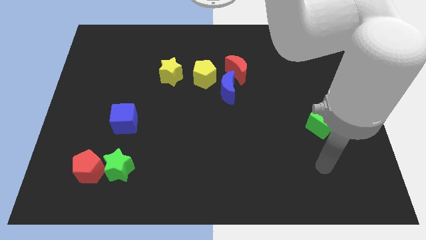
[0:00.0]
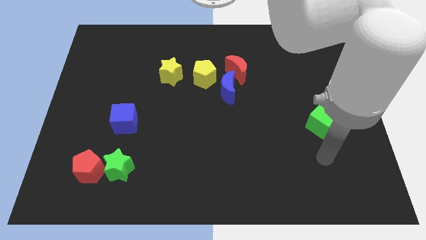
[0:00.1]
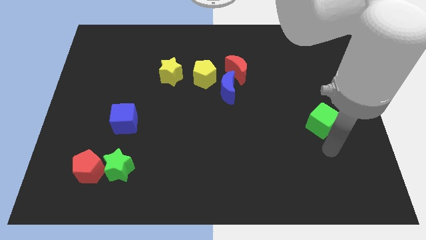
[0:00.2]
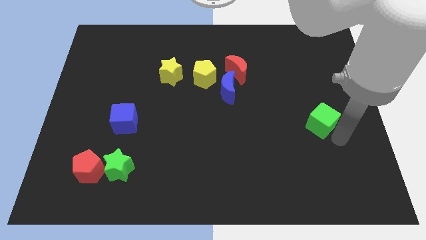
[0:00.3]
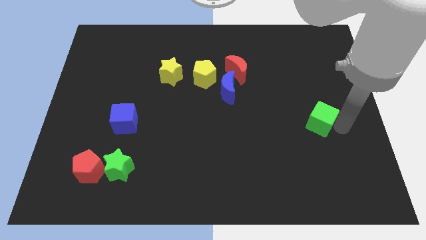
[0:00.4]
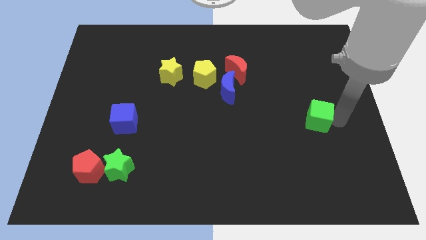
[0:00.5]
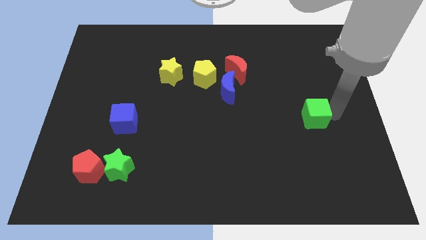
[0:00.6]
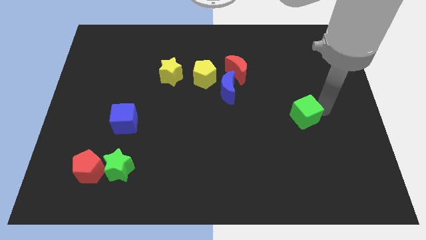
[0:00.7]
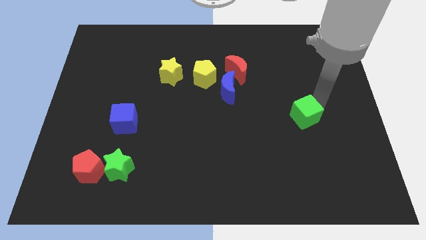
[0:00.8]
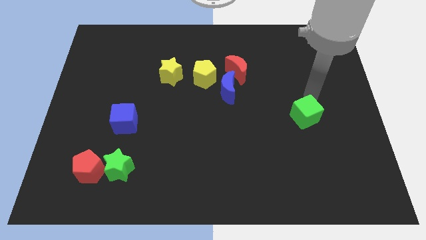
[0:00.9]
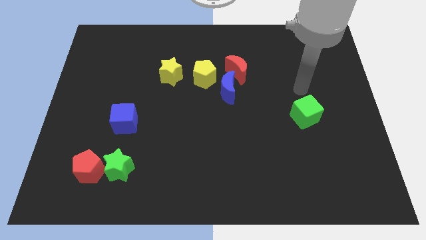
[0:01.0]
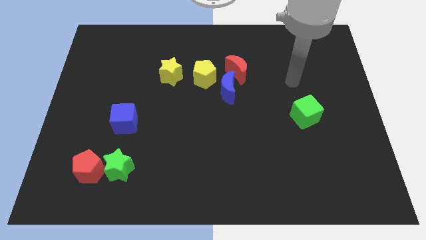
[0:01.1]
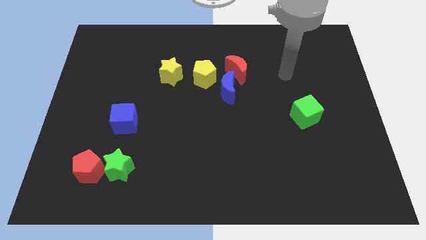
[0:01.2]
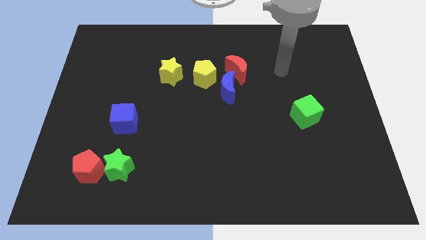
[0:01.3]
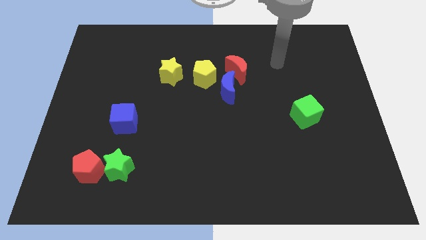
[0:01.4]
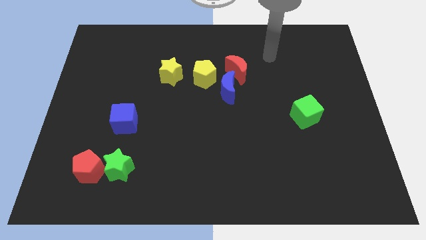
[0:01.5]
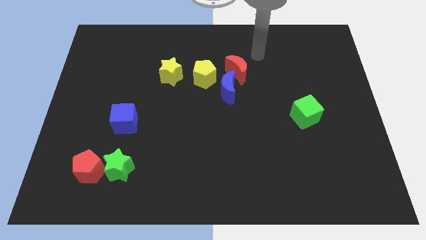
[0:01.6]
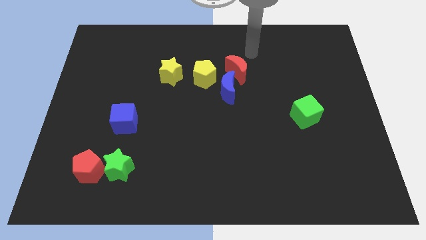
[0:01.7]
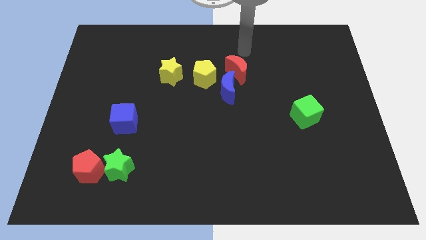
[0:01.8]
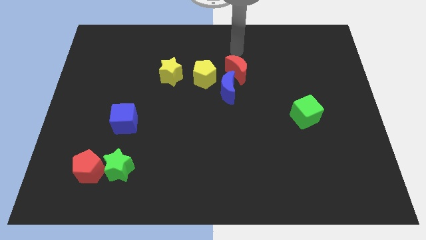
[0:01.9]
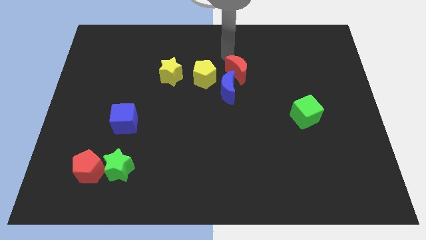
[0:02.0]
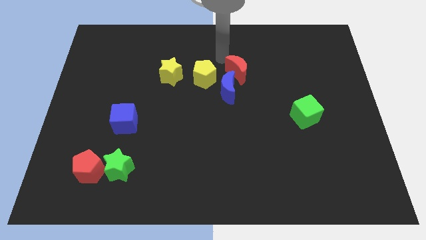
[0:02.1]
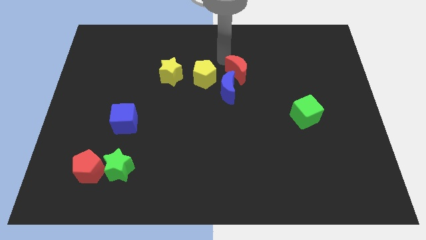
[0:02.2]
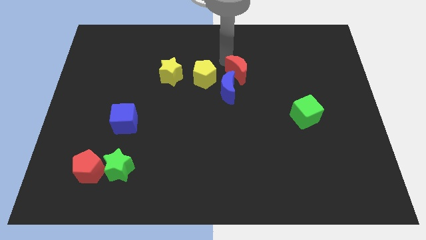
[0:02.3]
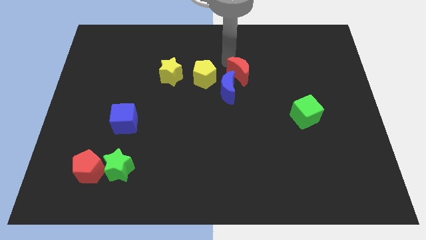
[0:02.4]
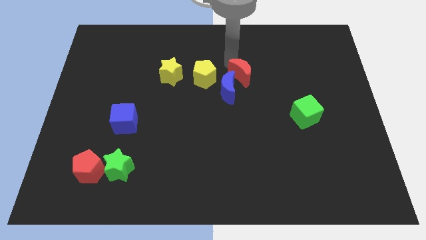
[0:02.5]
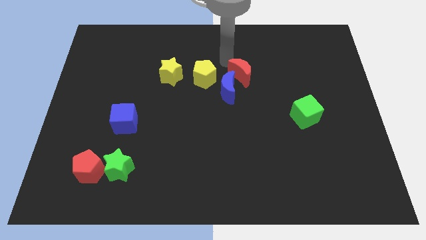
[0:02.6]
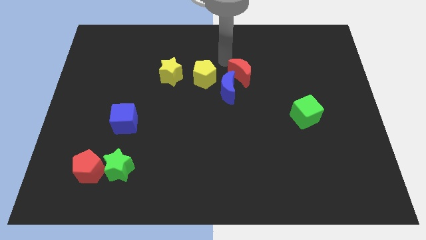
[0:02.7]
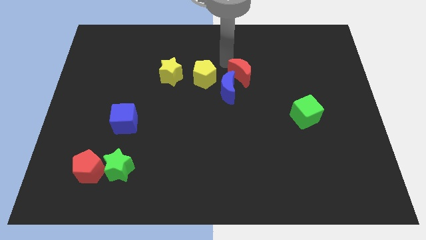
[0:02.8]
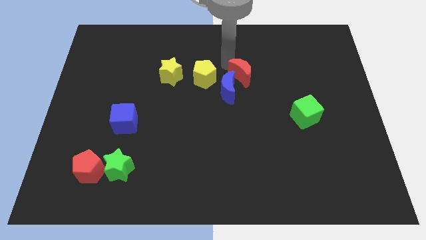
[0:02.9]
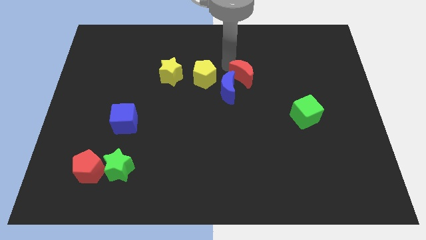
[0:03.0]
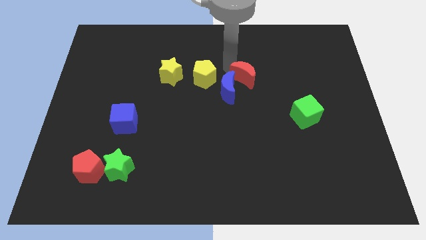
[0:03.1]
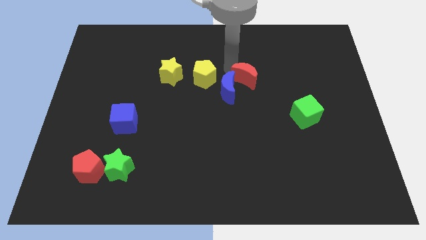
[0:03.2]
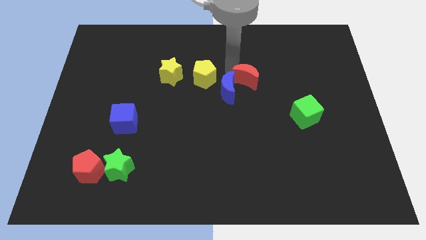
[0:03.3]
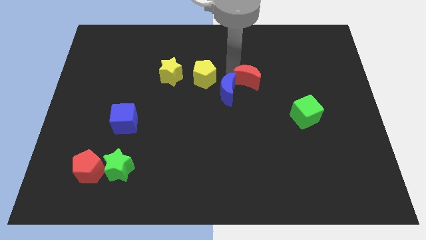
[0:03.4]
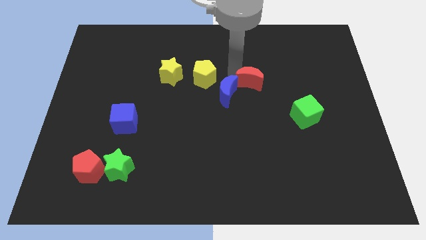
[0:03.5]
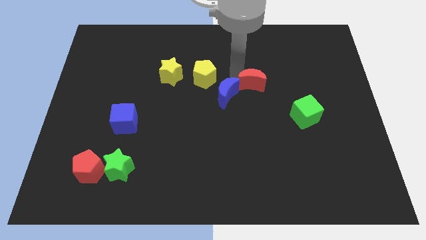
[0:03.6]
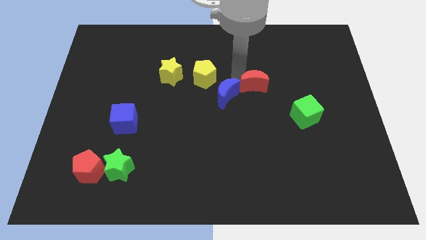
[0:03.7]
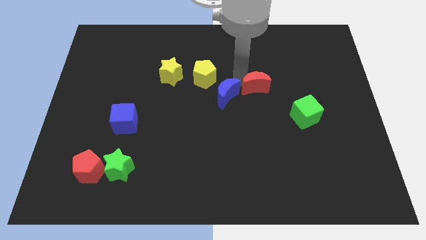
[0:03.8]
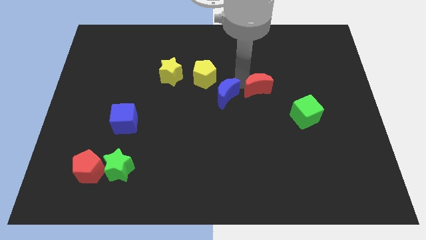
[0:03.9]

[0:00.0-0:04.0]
push the red moon somewhat diagonally downwards and to the right

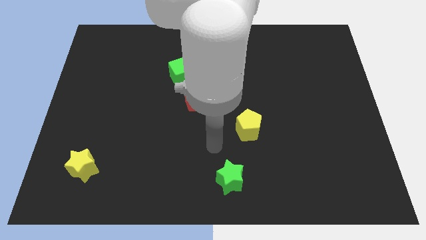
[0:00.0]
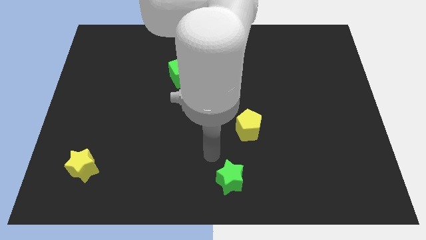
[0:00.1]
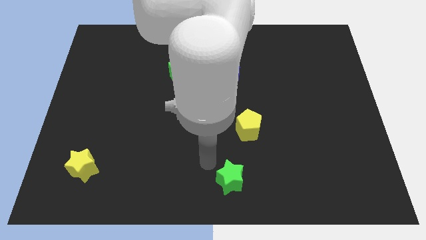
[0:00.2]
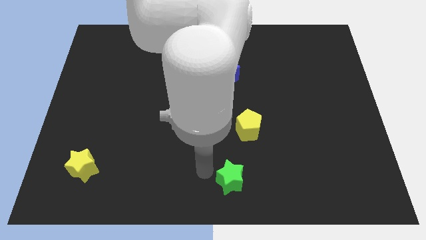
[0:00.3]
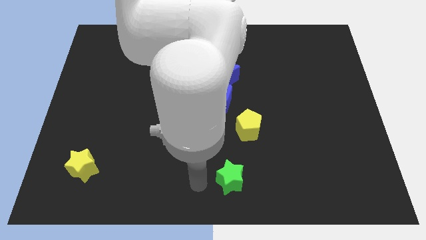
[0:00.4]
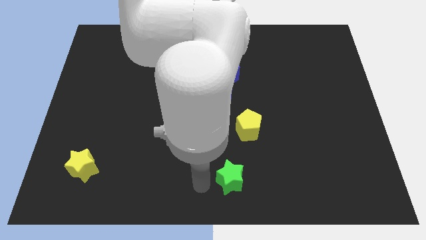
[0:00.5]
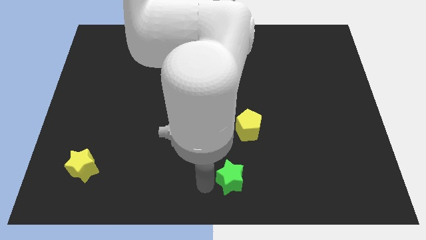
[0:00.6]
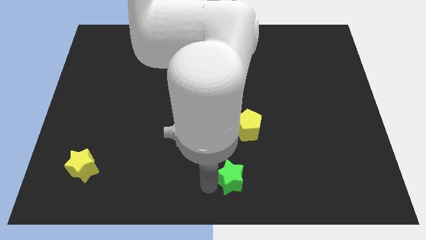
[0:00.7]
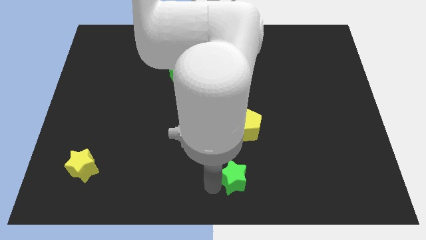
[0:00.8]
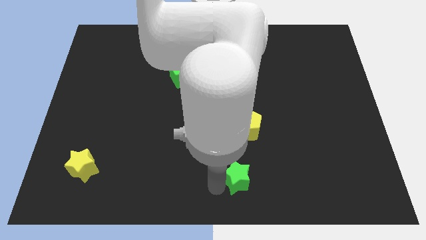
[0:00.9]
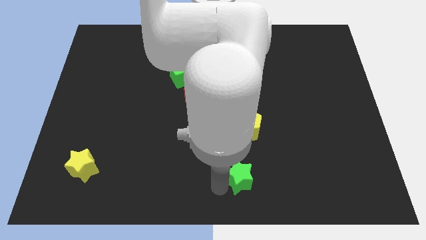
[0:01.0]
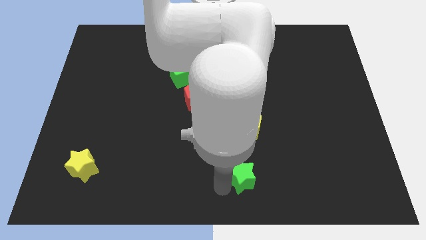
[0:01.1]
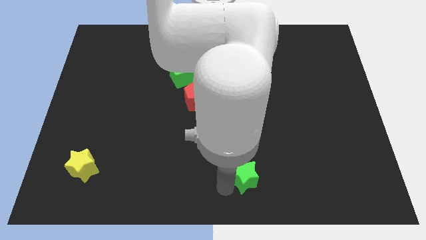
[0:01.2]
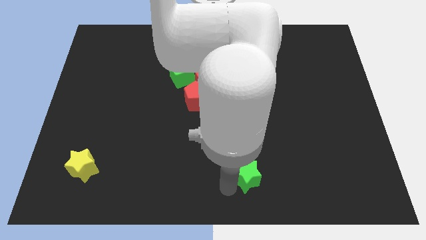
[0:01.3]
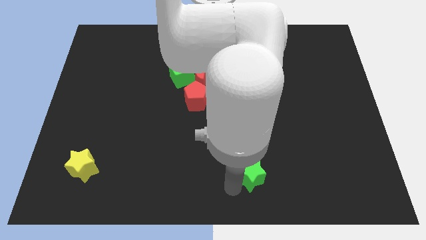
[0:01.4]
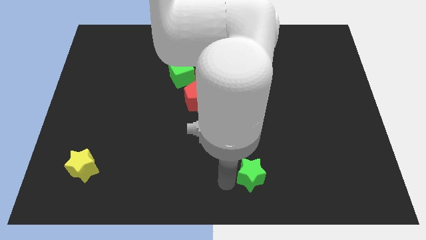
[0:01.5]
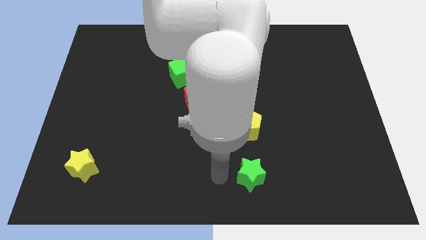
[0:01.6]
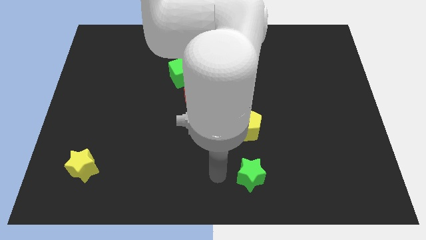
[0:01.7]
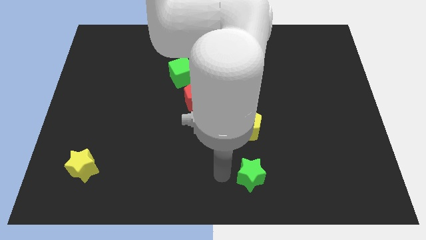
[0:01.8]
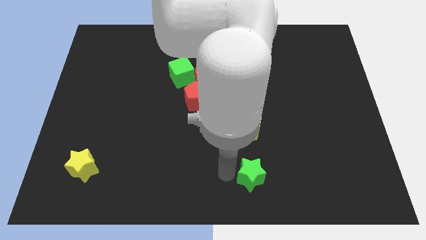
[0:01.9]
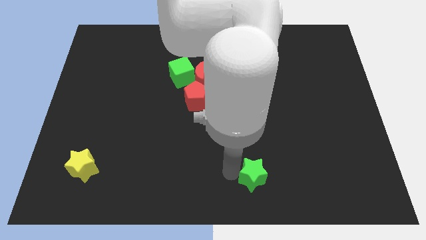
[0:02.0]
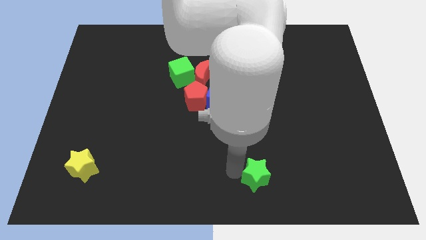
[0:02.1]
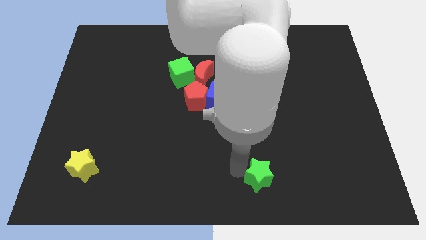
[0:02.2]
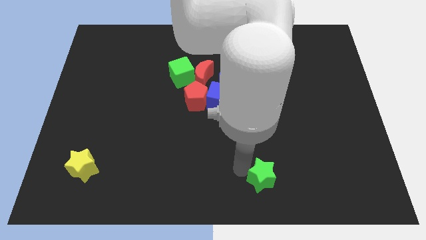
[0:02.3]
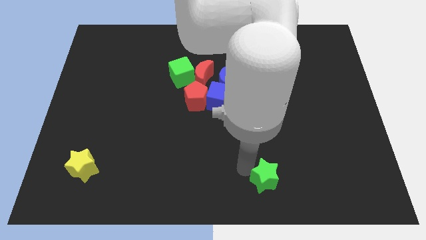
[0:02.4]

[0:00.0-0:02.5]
move the green star to the right a little bit

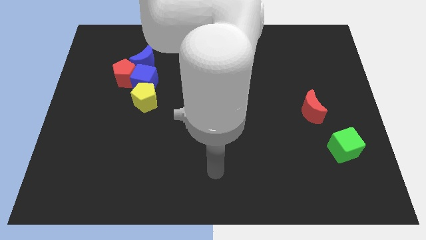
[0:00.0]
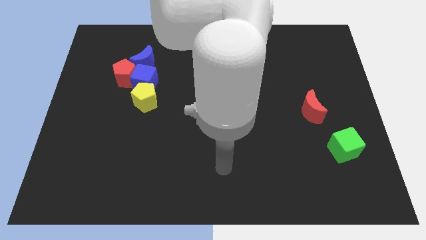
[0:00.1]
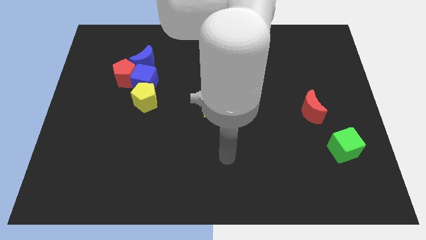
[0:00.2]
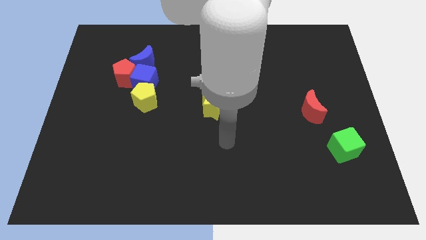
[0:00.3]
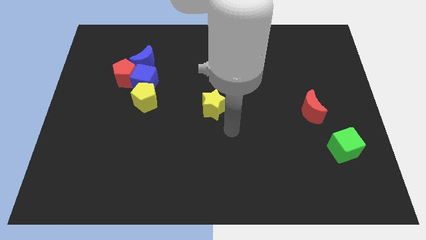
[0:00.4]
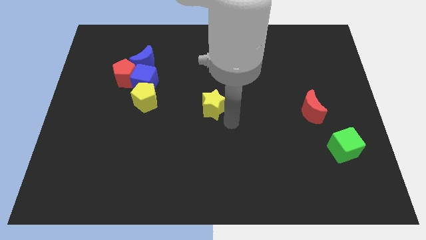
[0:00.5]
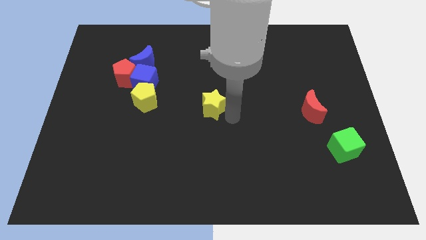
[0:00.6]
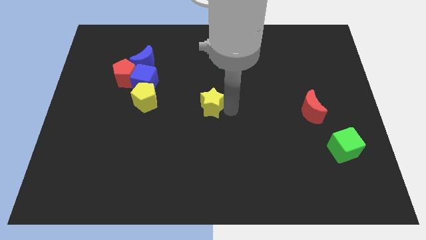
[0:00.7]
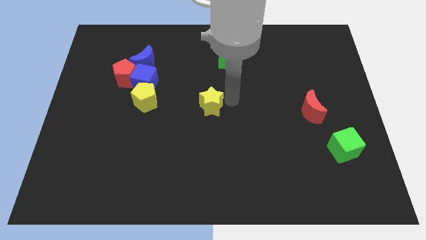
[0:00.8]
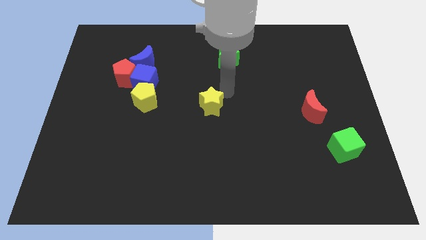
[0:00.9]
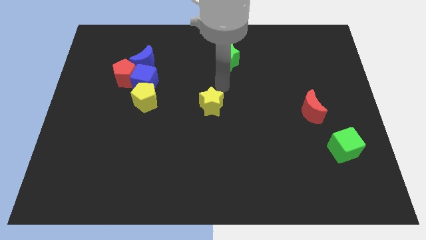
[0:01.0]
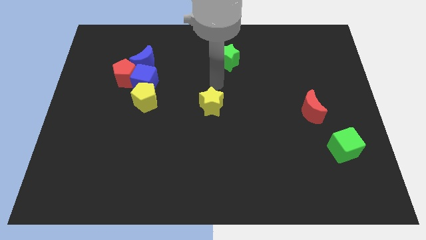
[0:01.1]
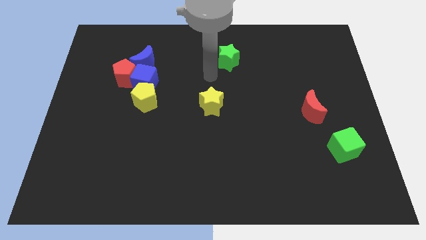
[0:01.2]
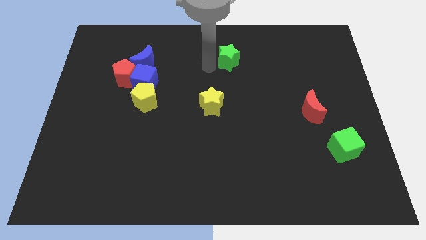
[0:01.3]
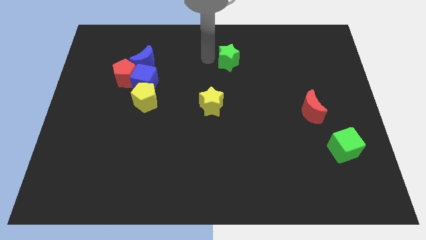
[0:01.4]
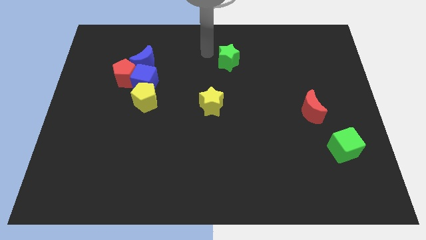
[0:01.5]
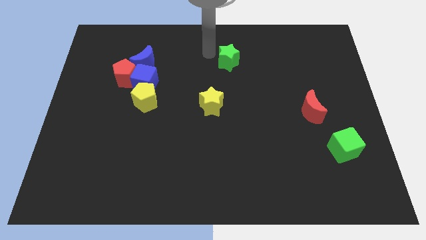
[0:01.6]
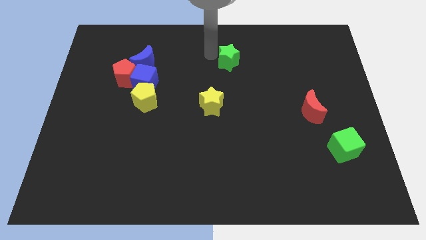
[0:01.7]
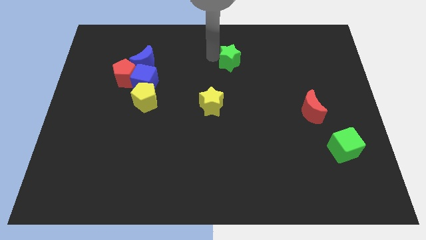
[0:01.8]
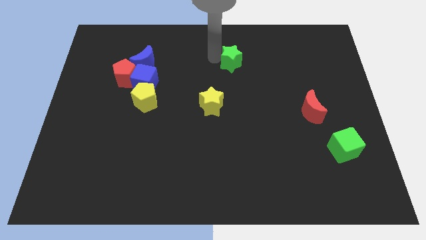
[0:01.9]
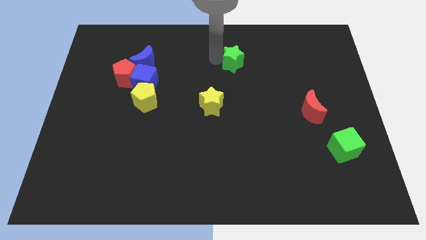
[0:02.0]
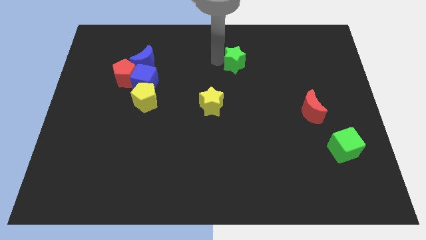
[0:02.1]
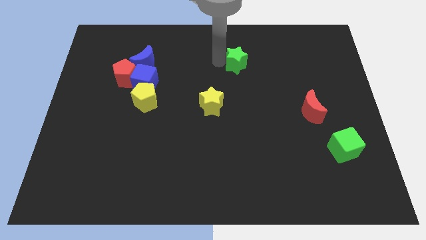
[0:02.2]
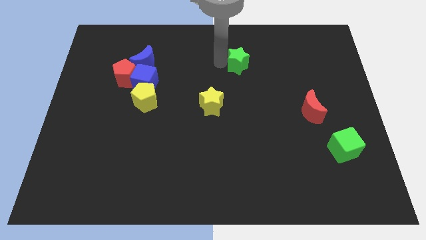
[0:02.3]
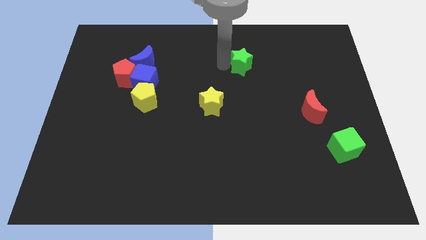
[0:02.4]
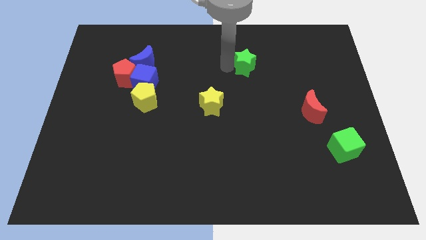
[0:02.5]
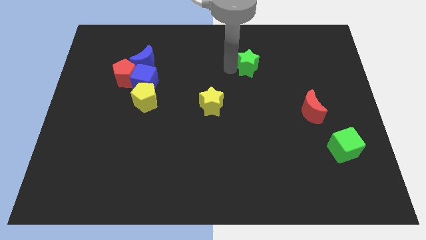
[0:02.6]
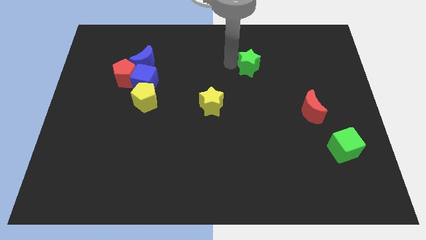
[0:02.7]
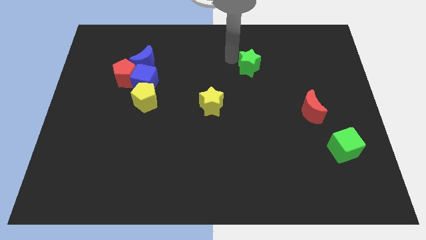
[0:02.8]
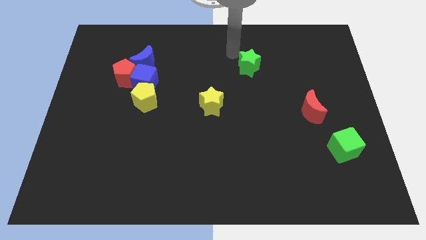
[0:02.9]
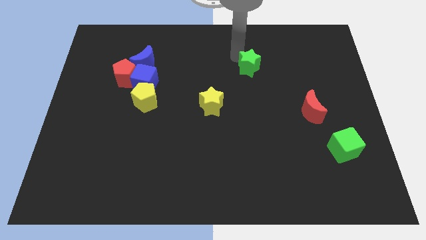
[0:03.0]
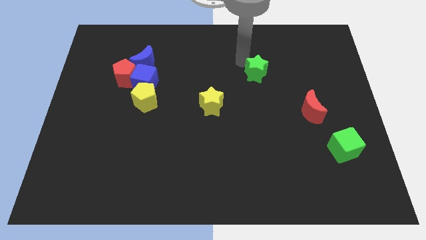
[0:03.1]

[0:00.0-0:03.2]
push the green star diagonally downwards and right a bit
